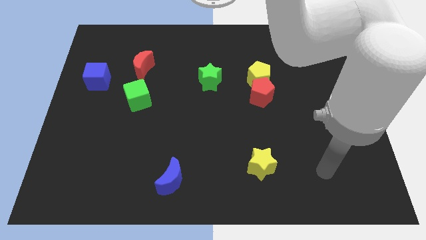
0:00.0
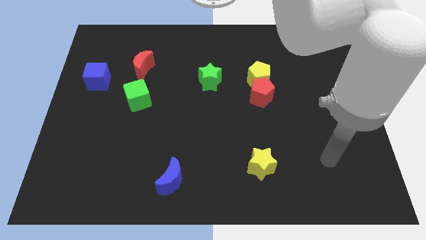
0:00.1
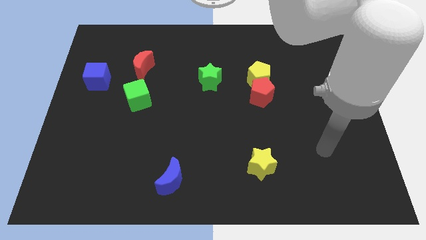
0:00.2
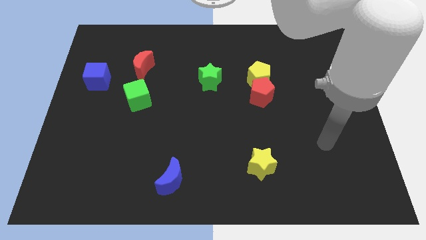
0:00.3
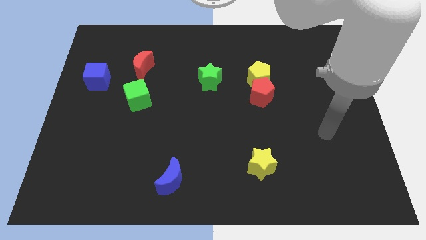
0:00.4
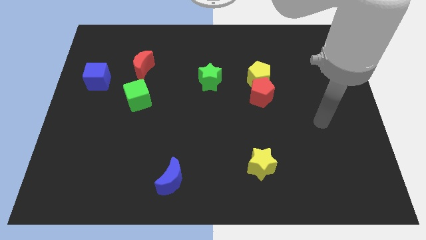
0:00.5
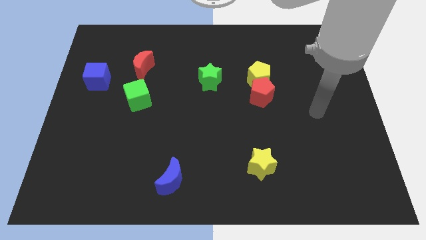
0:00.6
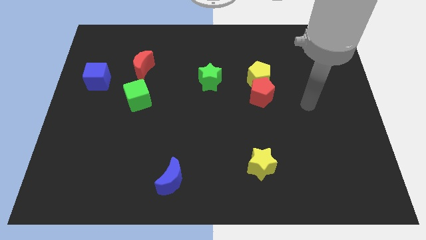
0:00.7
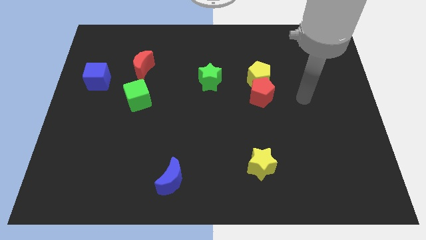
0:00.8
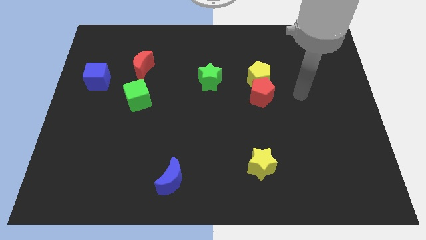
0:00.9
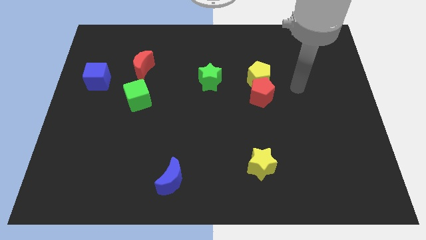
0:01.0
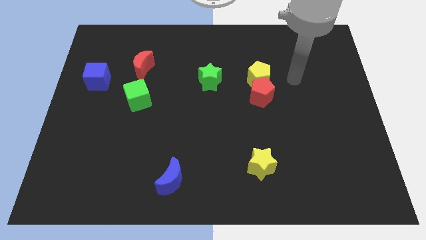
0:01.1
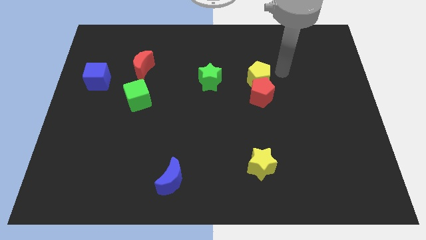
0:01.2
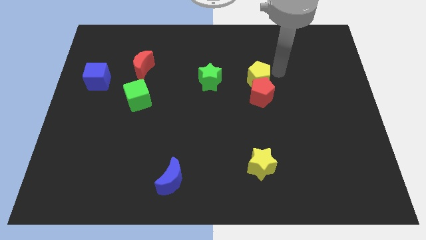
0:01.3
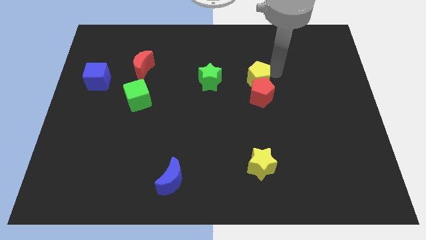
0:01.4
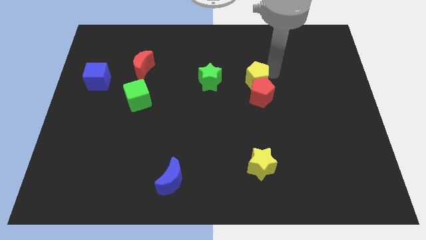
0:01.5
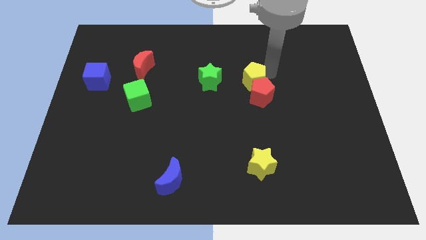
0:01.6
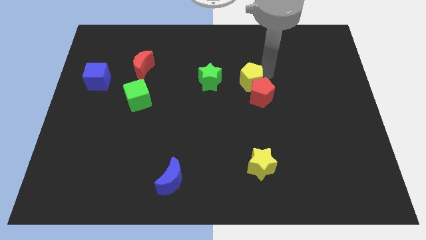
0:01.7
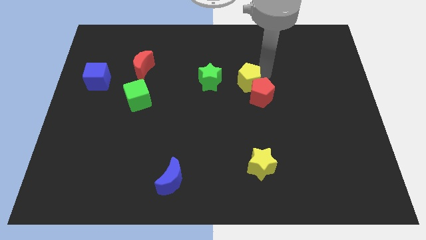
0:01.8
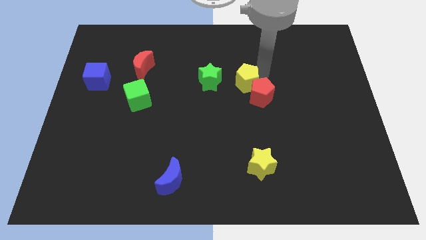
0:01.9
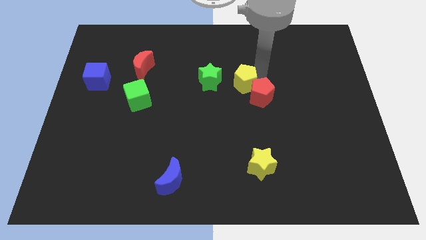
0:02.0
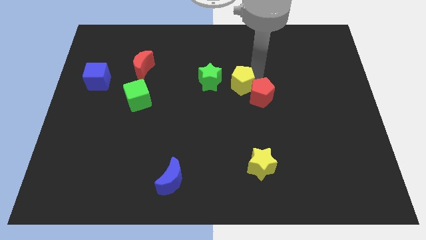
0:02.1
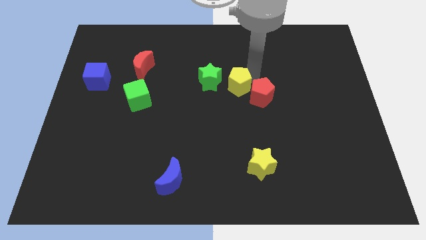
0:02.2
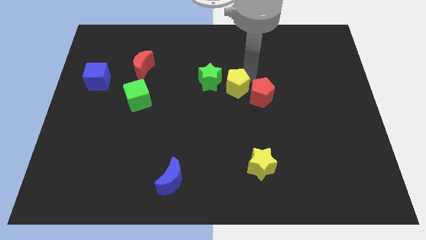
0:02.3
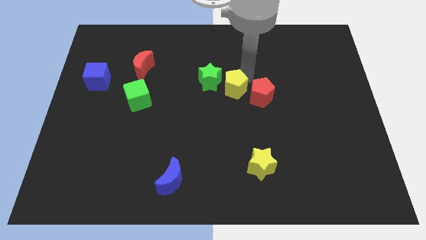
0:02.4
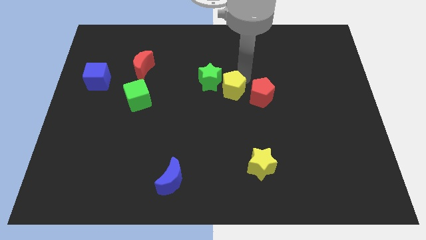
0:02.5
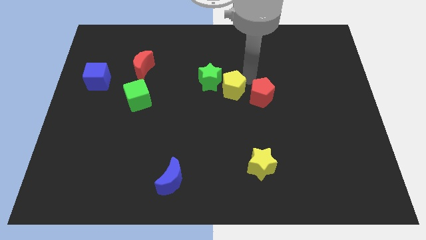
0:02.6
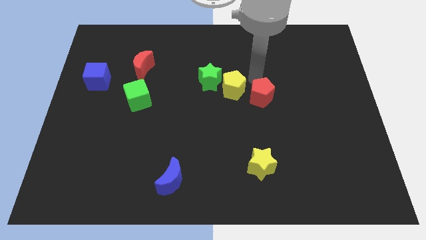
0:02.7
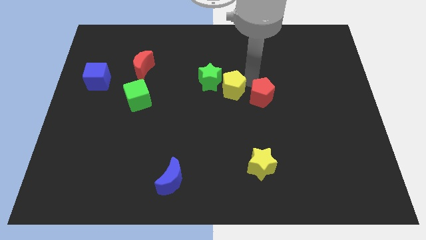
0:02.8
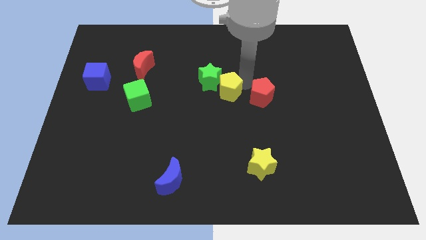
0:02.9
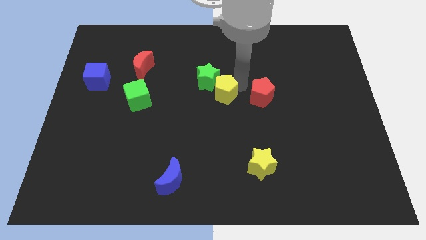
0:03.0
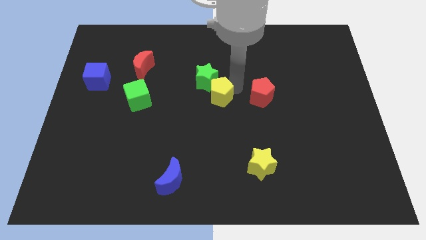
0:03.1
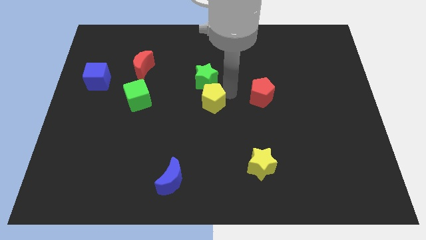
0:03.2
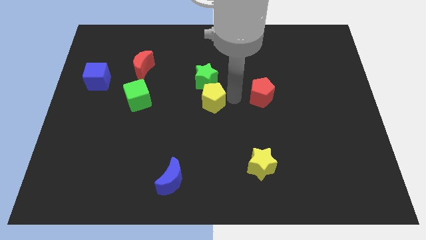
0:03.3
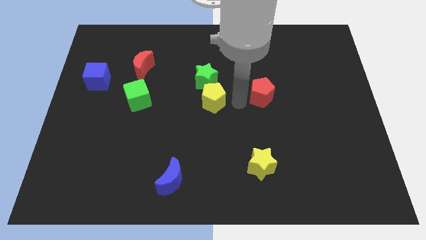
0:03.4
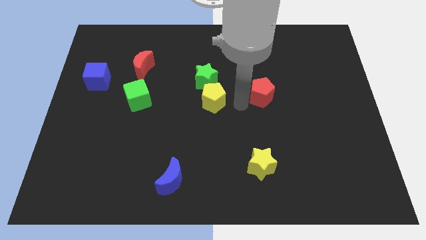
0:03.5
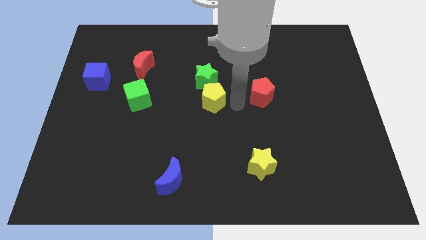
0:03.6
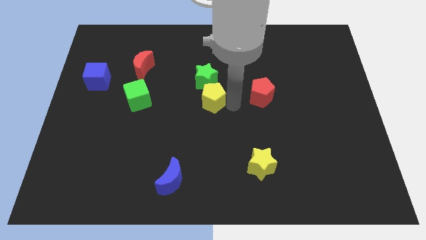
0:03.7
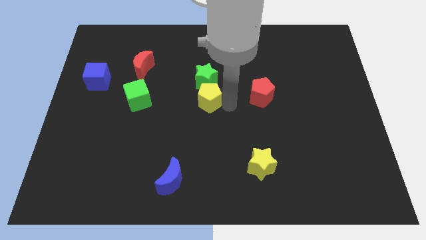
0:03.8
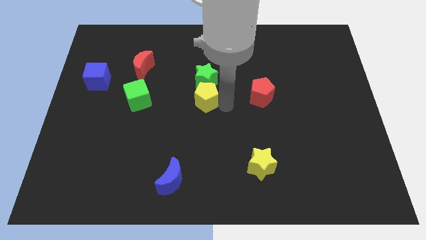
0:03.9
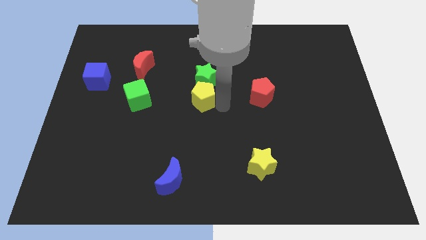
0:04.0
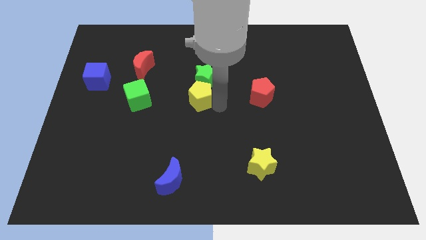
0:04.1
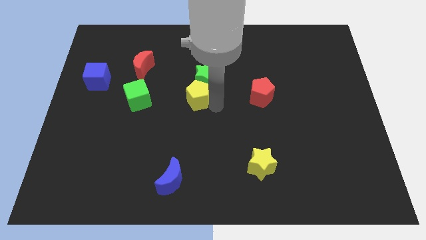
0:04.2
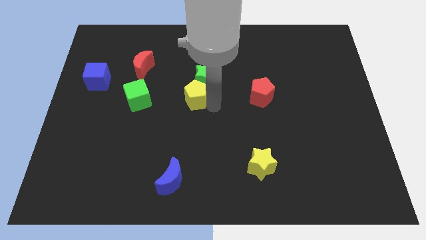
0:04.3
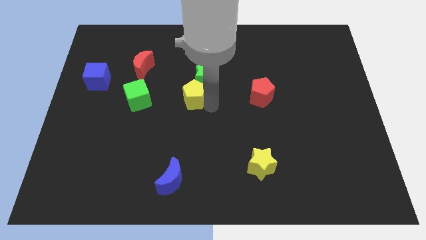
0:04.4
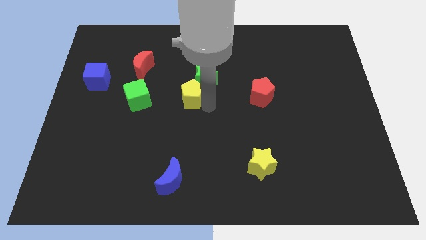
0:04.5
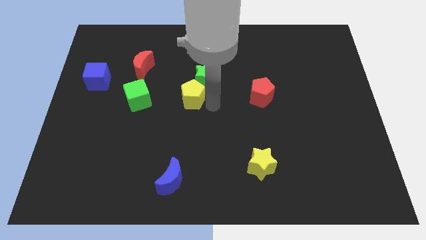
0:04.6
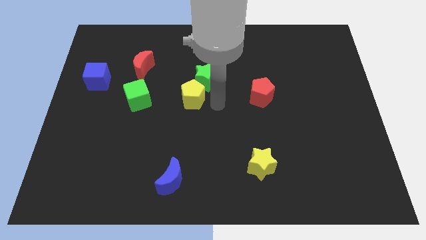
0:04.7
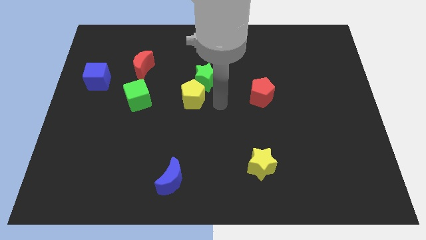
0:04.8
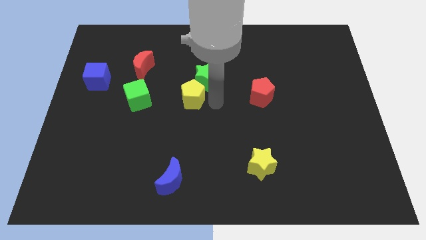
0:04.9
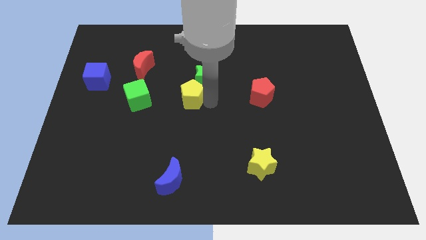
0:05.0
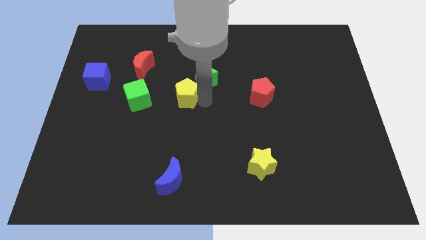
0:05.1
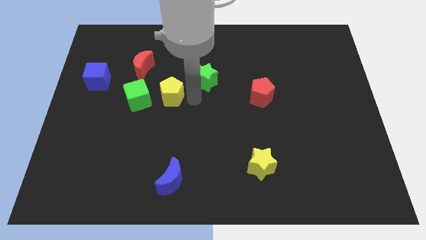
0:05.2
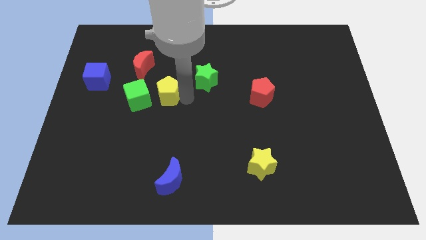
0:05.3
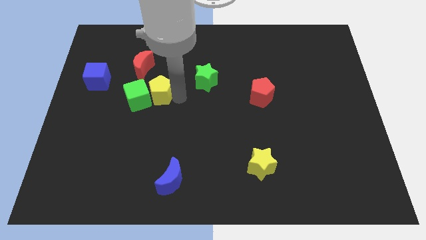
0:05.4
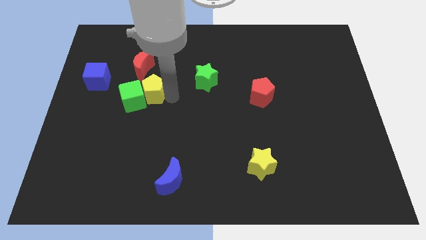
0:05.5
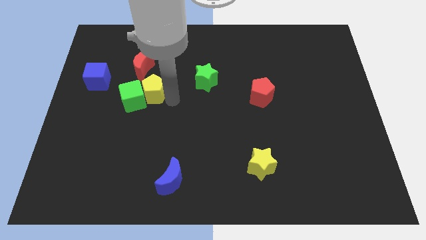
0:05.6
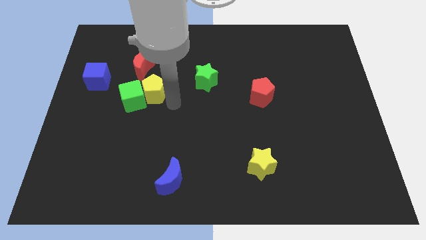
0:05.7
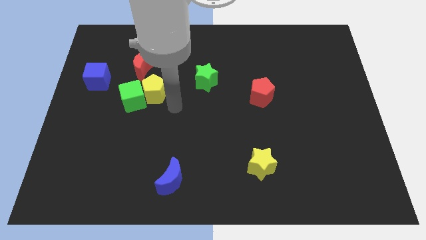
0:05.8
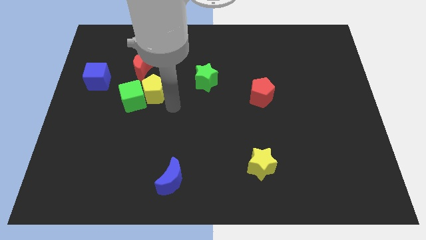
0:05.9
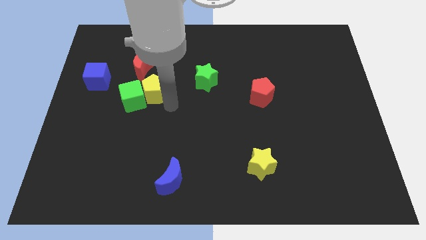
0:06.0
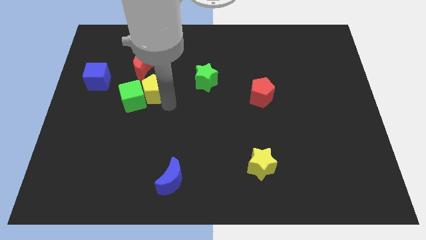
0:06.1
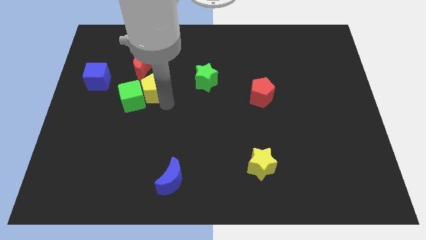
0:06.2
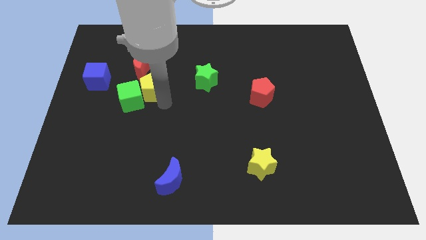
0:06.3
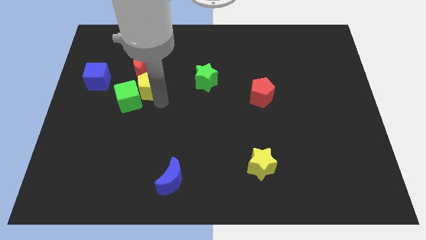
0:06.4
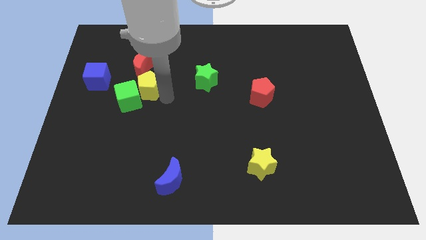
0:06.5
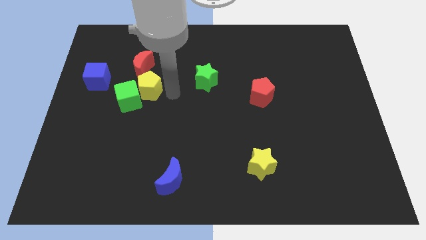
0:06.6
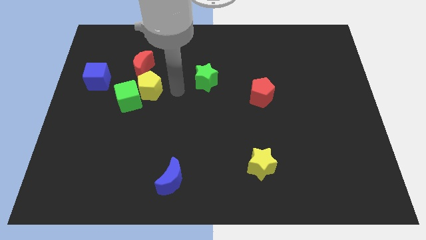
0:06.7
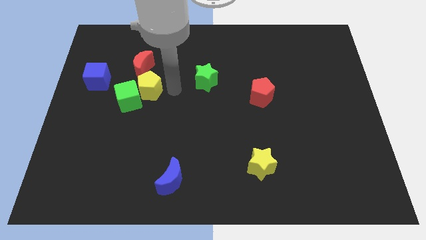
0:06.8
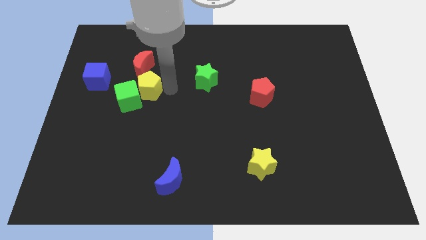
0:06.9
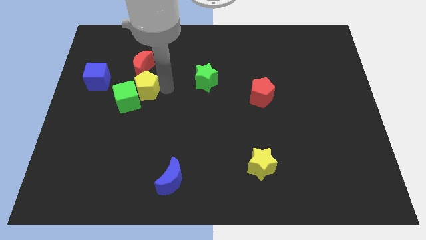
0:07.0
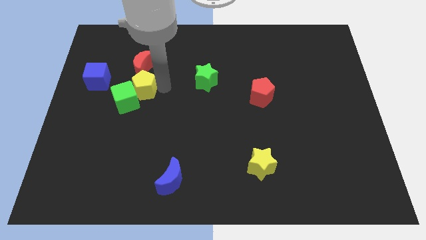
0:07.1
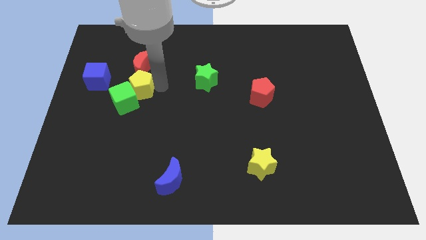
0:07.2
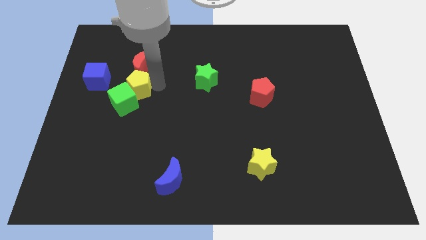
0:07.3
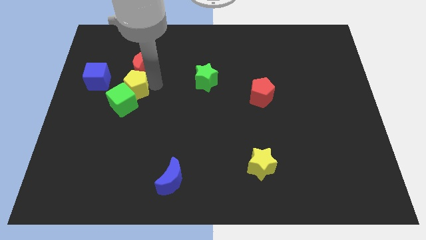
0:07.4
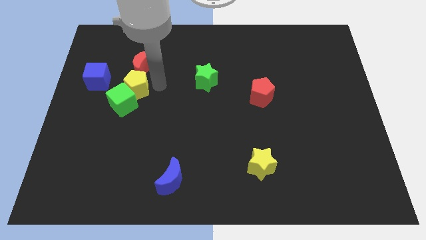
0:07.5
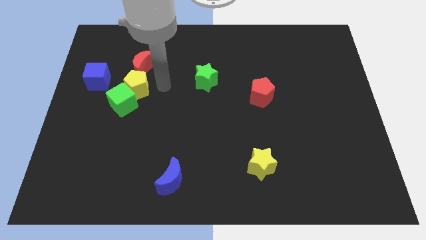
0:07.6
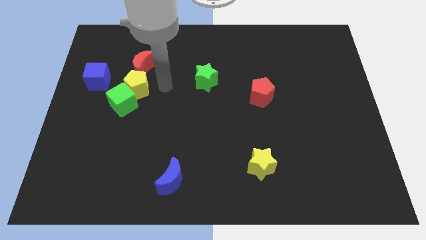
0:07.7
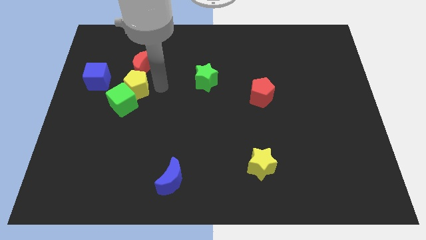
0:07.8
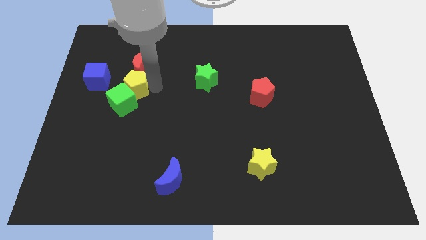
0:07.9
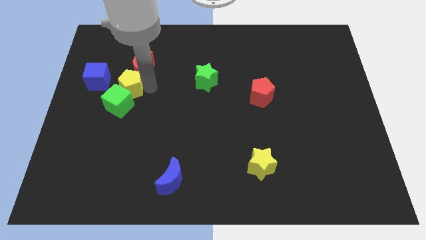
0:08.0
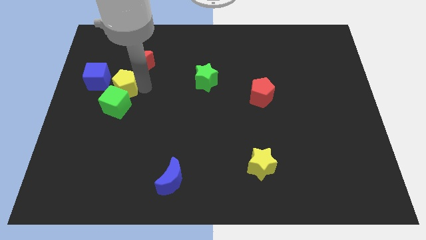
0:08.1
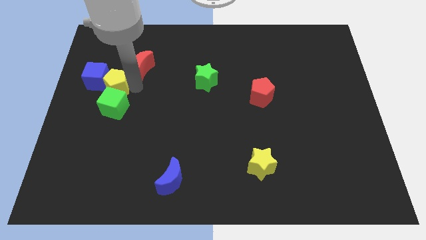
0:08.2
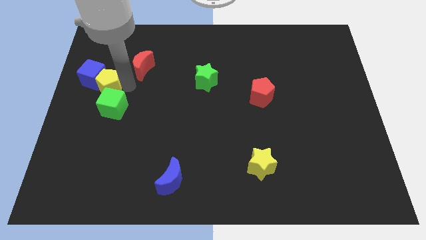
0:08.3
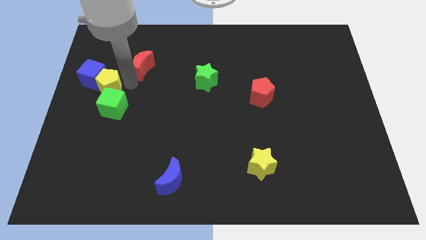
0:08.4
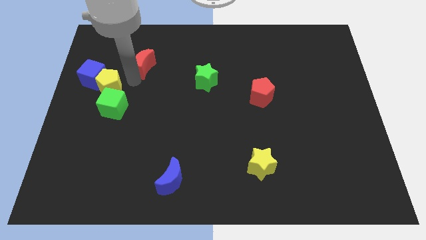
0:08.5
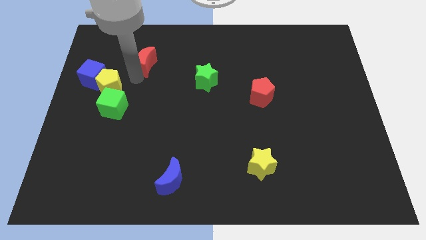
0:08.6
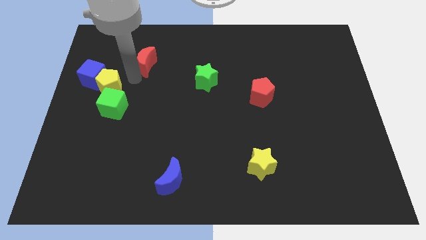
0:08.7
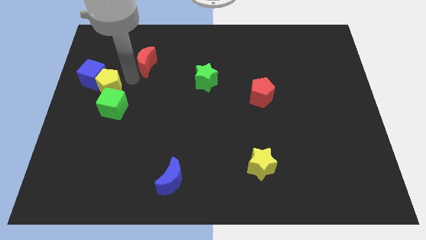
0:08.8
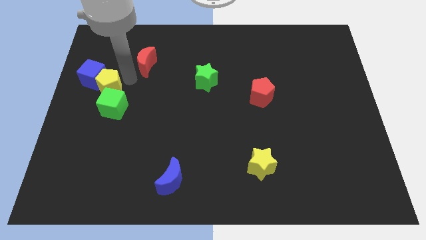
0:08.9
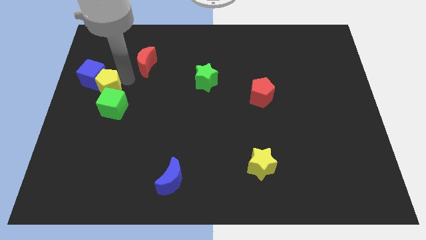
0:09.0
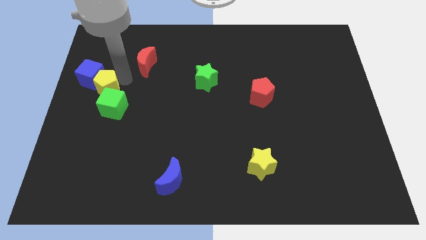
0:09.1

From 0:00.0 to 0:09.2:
push the yellow pentagon to the left side
